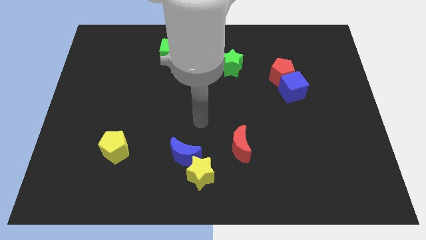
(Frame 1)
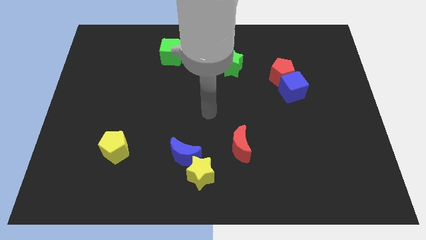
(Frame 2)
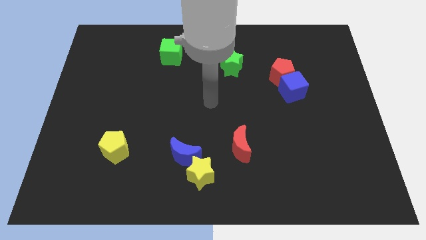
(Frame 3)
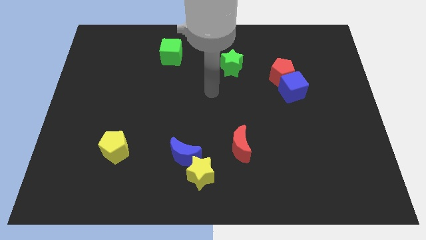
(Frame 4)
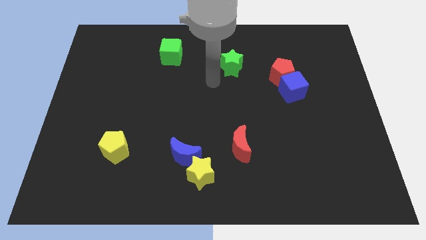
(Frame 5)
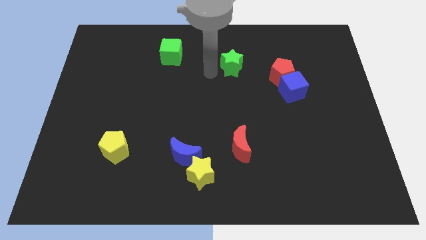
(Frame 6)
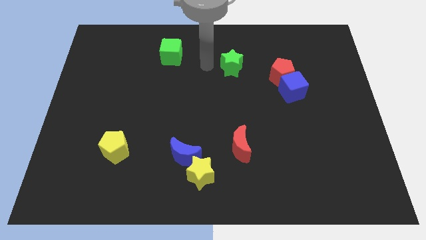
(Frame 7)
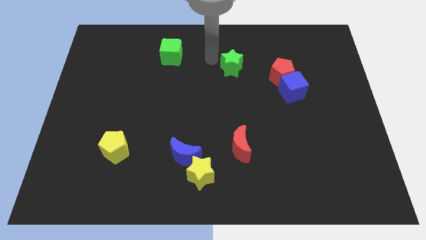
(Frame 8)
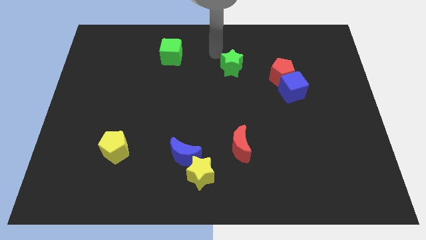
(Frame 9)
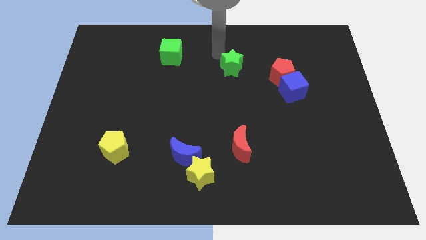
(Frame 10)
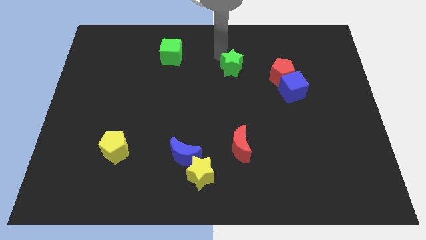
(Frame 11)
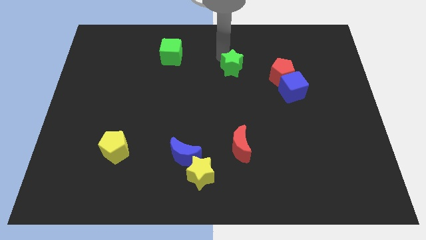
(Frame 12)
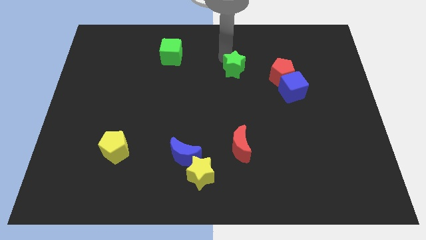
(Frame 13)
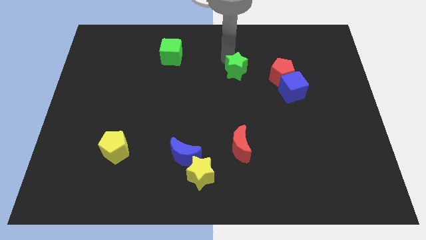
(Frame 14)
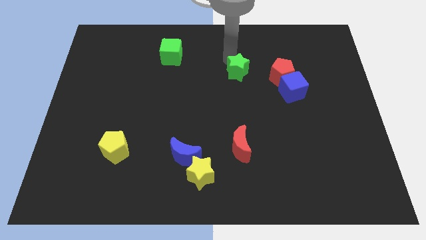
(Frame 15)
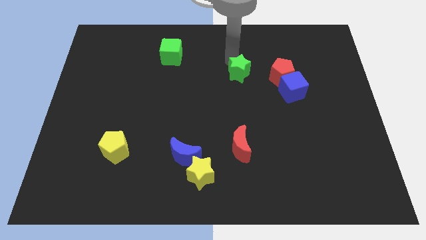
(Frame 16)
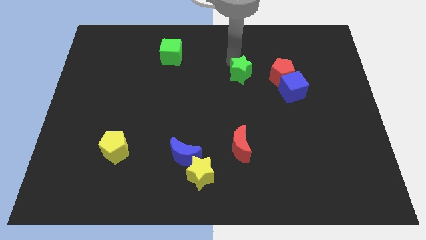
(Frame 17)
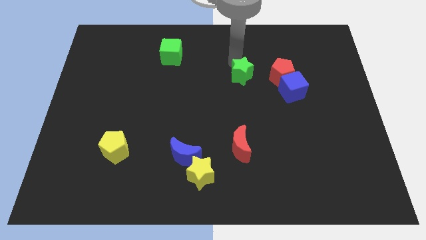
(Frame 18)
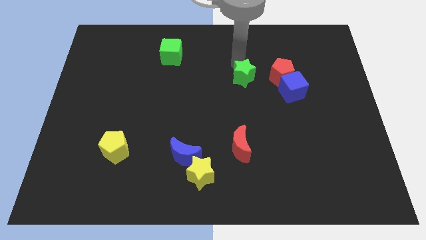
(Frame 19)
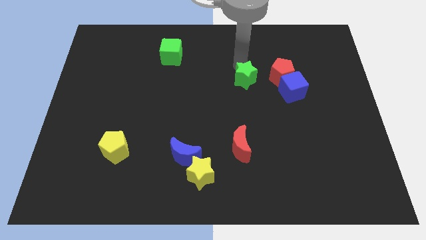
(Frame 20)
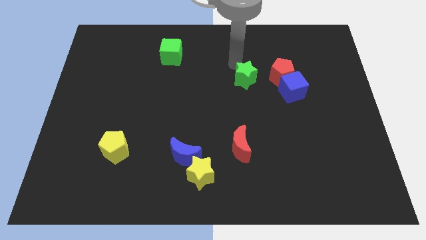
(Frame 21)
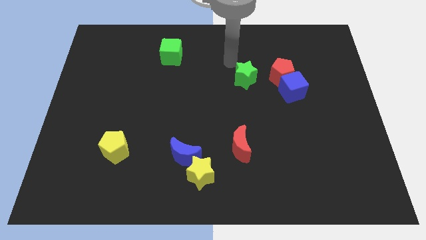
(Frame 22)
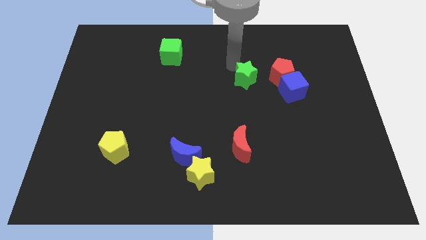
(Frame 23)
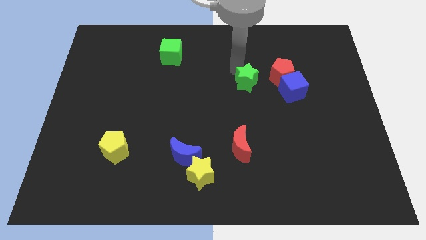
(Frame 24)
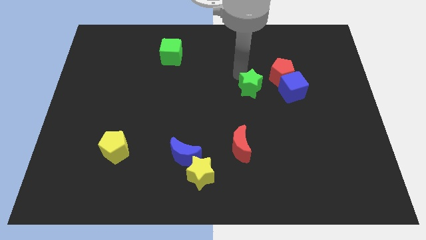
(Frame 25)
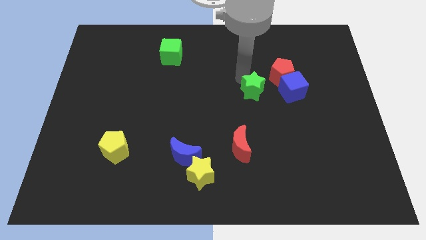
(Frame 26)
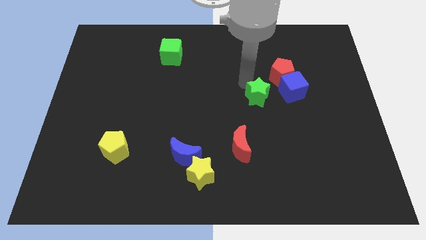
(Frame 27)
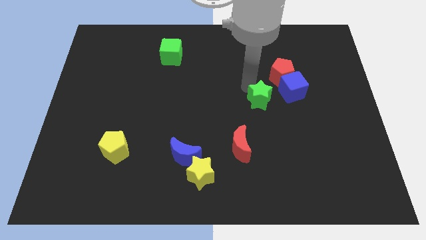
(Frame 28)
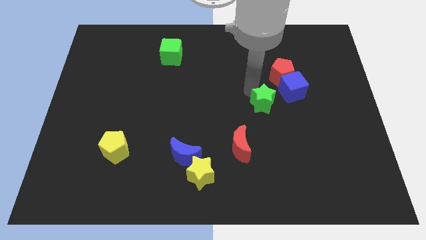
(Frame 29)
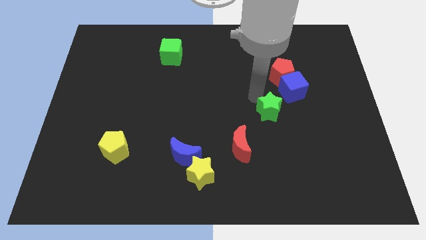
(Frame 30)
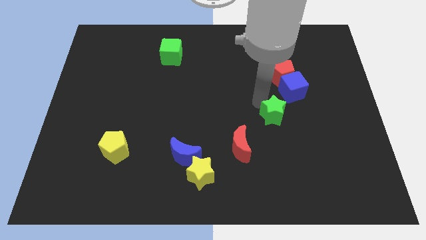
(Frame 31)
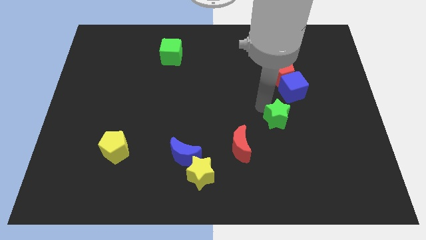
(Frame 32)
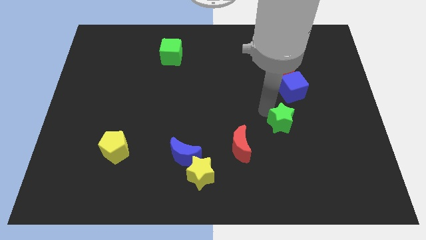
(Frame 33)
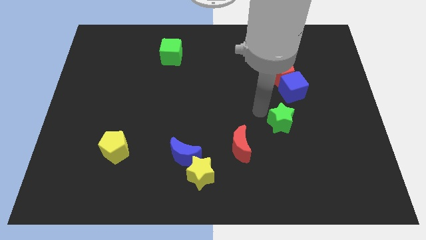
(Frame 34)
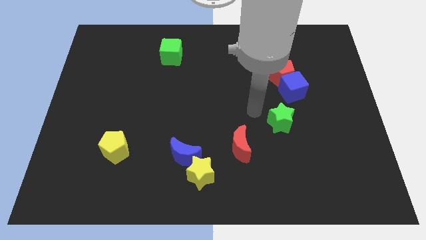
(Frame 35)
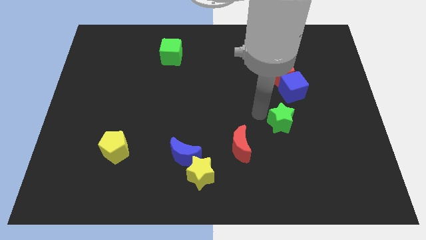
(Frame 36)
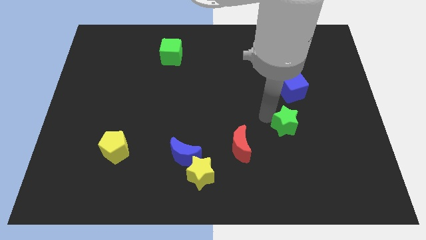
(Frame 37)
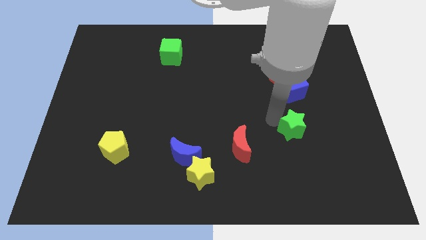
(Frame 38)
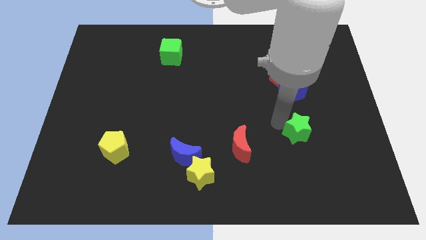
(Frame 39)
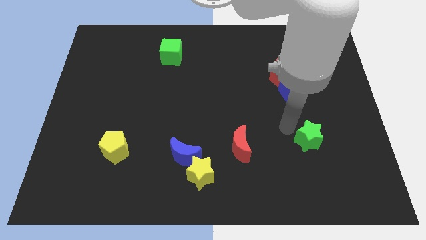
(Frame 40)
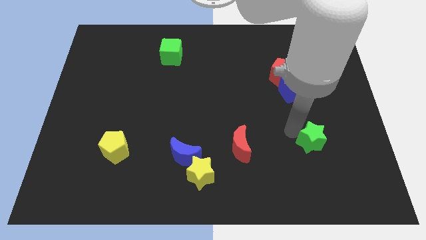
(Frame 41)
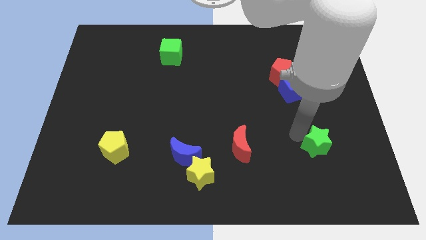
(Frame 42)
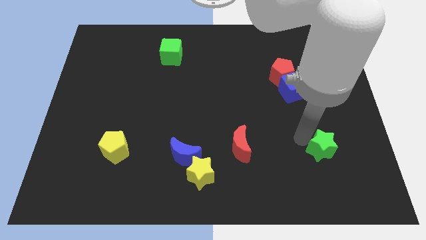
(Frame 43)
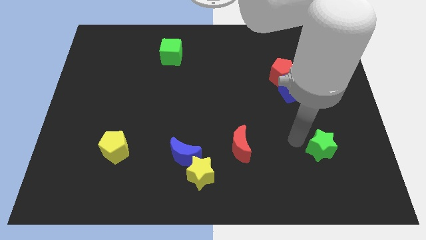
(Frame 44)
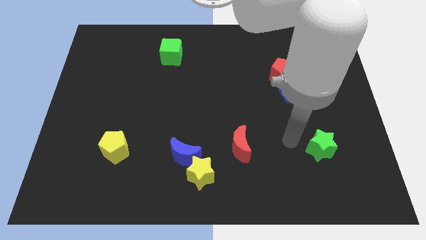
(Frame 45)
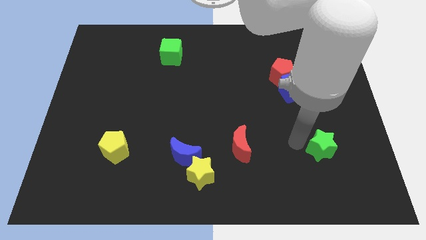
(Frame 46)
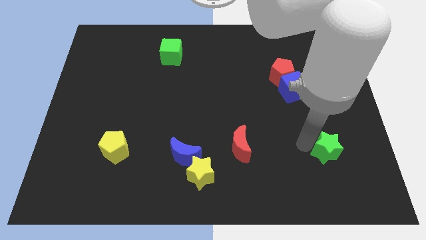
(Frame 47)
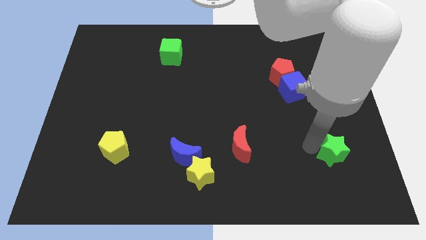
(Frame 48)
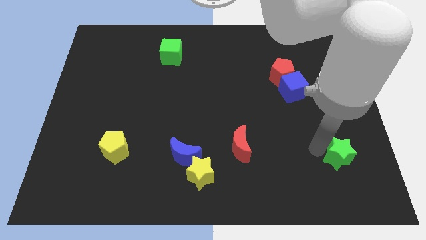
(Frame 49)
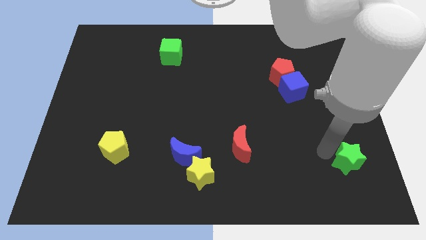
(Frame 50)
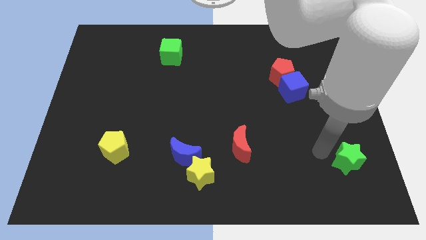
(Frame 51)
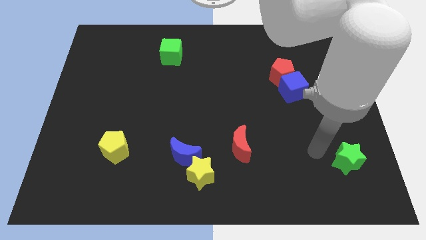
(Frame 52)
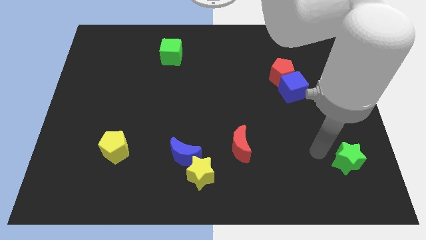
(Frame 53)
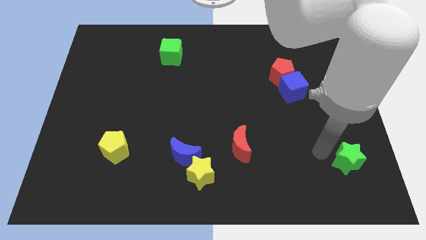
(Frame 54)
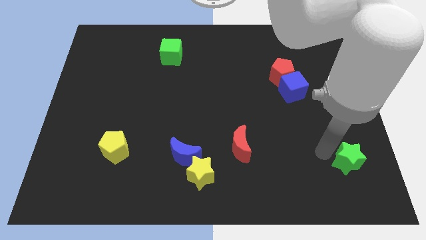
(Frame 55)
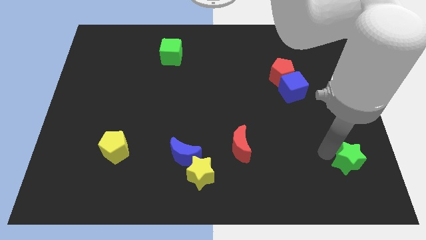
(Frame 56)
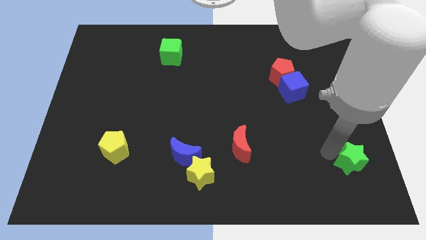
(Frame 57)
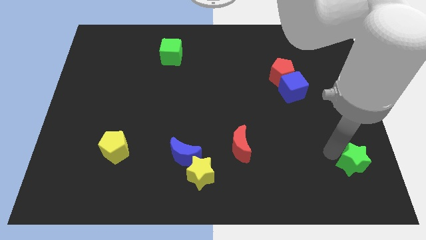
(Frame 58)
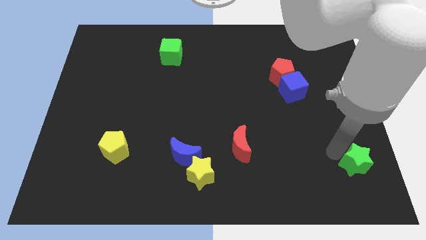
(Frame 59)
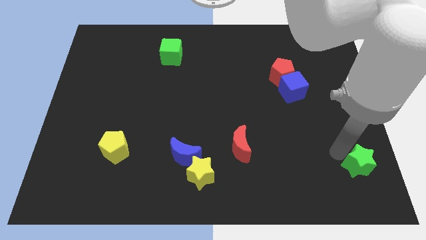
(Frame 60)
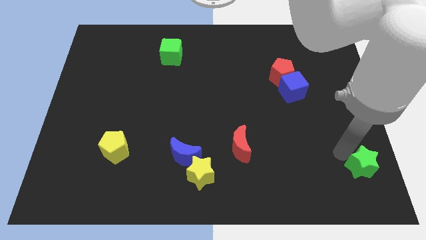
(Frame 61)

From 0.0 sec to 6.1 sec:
slide the green star to the bottom right corner

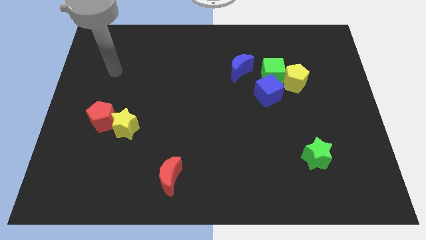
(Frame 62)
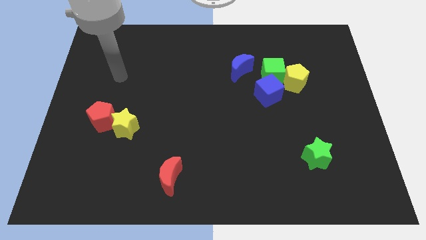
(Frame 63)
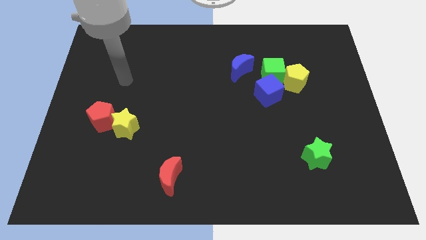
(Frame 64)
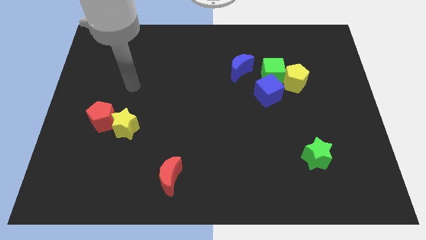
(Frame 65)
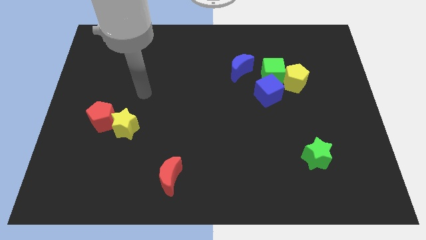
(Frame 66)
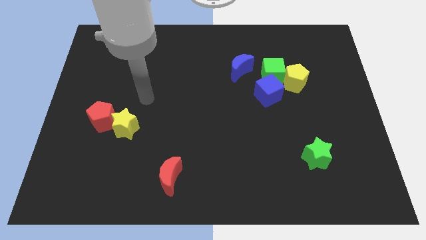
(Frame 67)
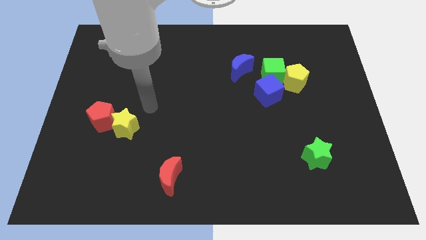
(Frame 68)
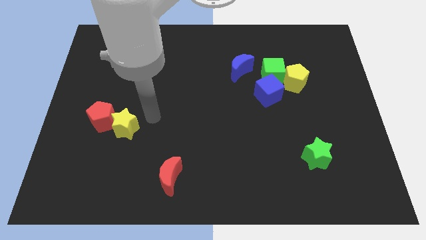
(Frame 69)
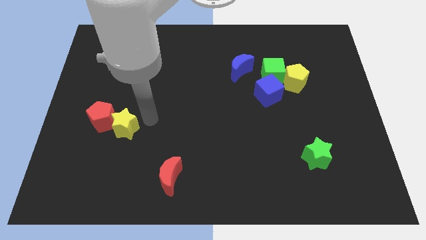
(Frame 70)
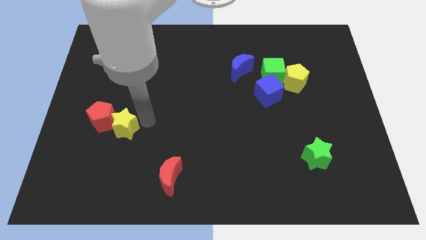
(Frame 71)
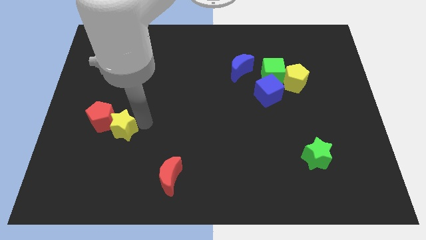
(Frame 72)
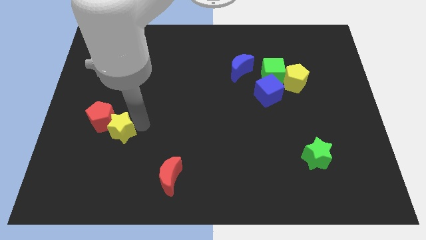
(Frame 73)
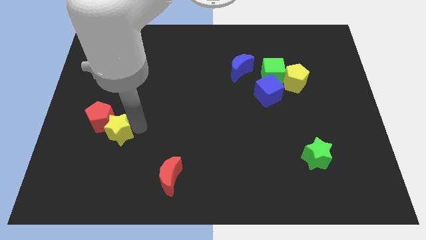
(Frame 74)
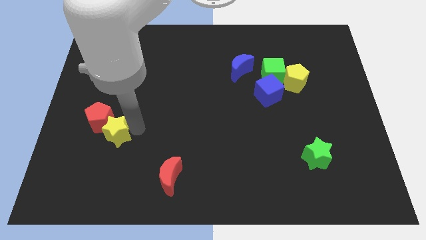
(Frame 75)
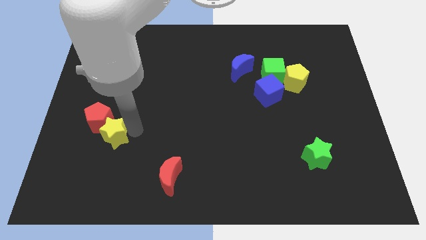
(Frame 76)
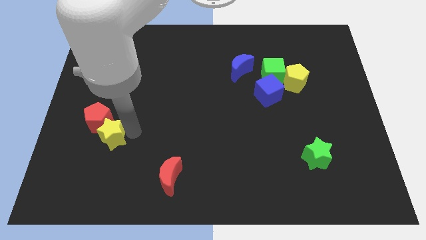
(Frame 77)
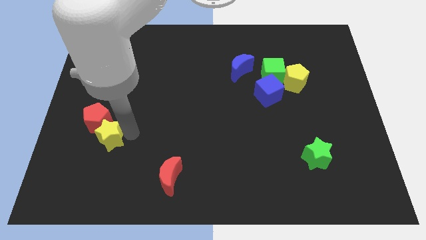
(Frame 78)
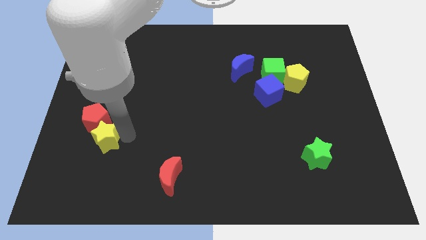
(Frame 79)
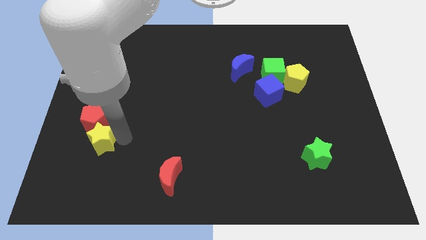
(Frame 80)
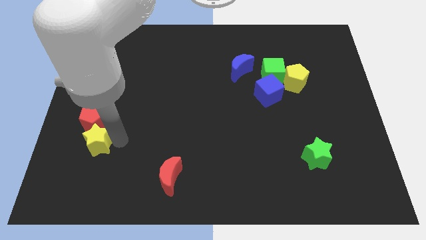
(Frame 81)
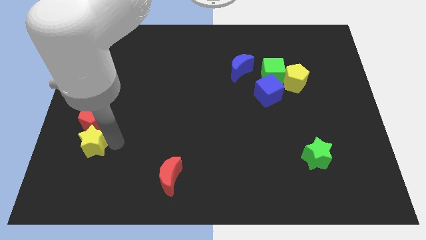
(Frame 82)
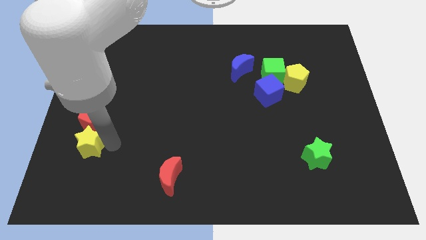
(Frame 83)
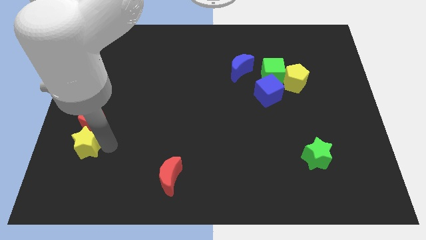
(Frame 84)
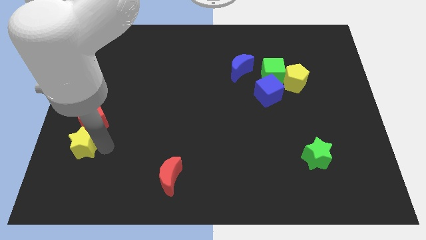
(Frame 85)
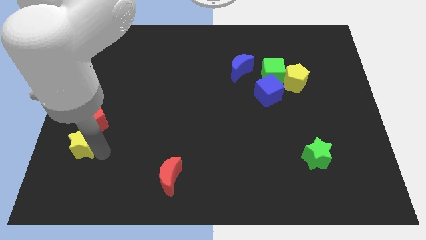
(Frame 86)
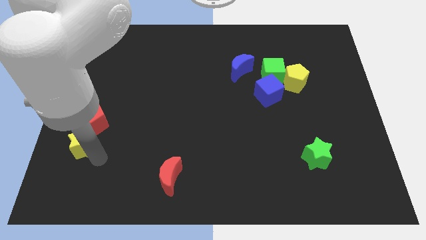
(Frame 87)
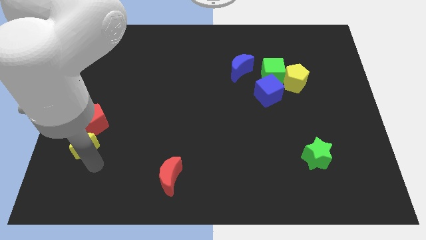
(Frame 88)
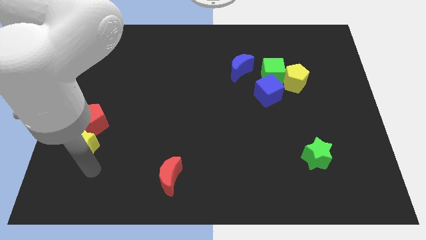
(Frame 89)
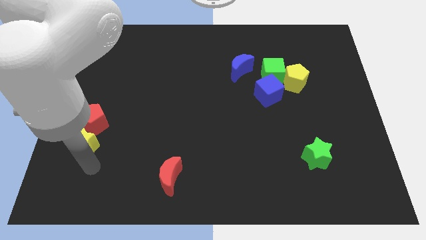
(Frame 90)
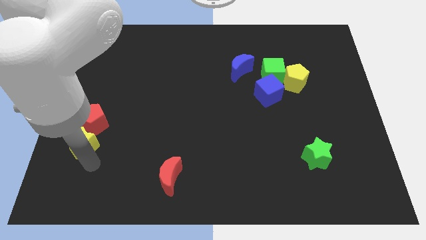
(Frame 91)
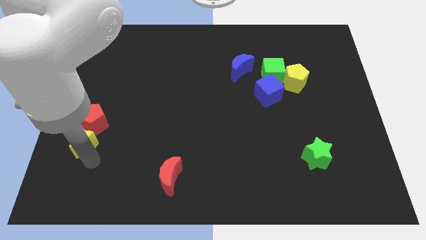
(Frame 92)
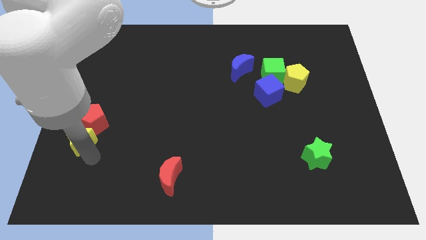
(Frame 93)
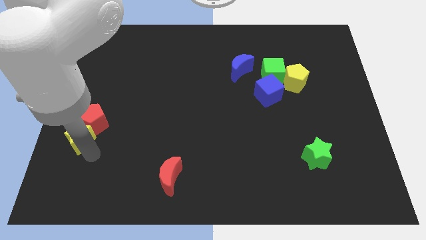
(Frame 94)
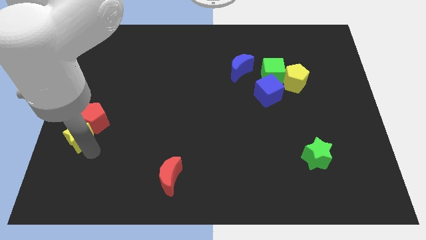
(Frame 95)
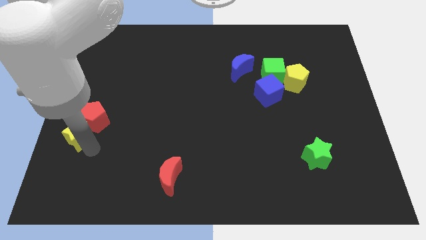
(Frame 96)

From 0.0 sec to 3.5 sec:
move the yellow star to the left side of the board
